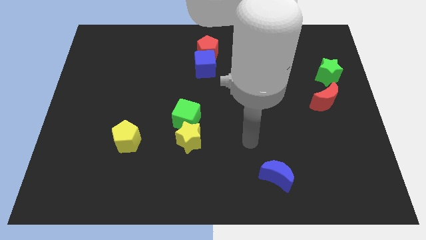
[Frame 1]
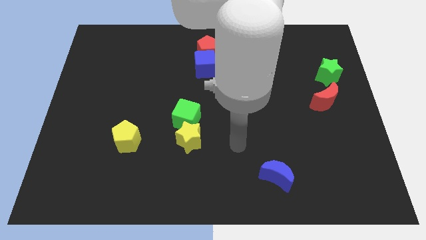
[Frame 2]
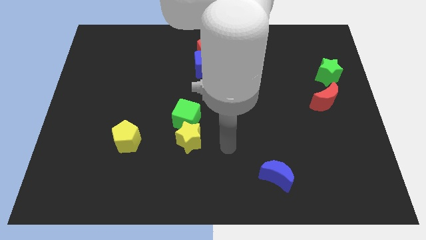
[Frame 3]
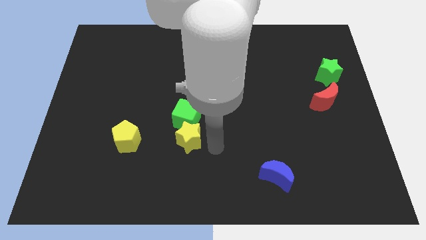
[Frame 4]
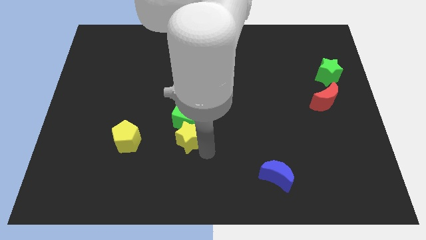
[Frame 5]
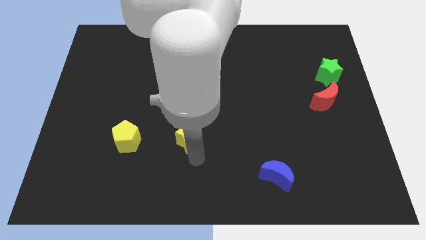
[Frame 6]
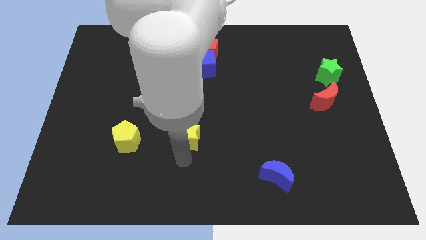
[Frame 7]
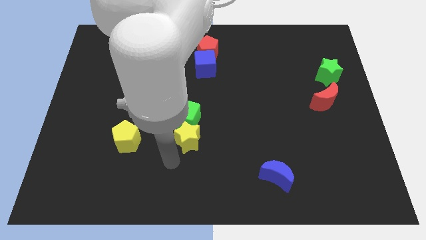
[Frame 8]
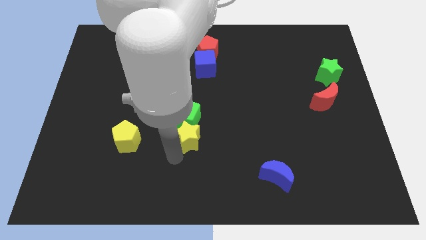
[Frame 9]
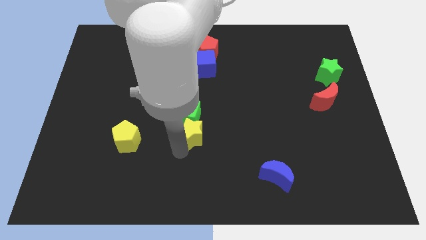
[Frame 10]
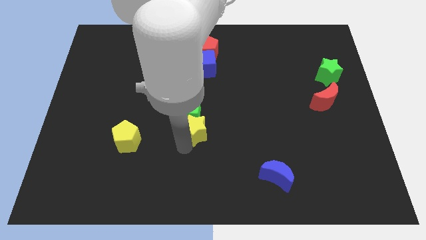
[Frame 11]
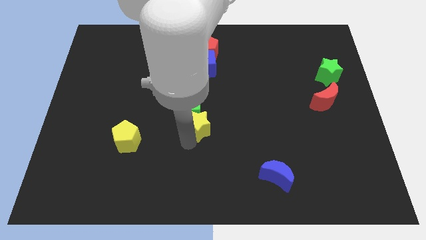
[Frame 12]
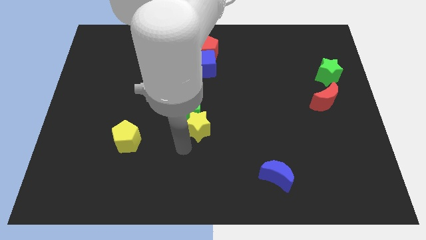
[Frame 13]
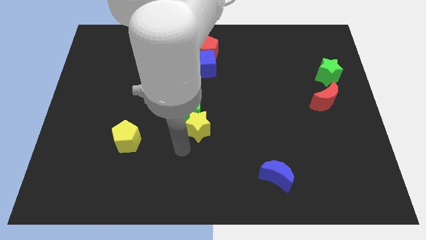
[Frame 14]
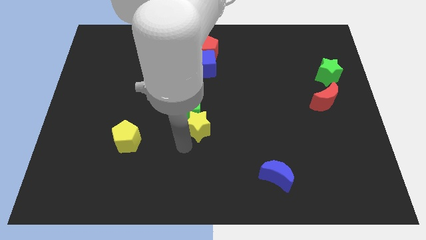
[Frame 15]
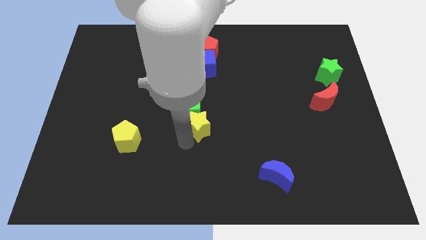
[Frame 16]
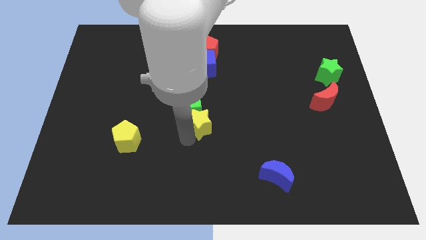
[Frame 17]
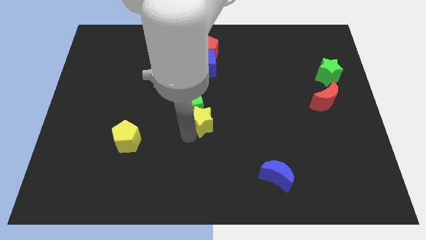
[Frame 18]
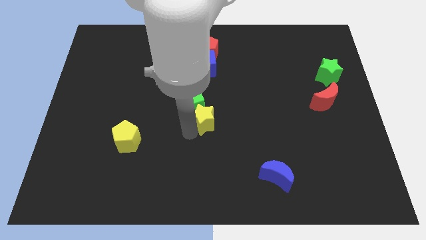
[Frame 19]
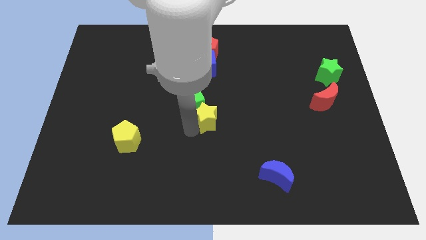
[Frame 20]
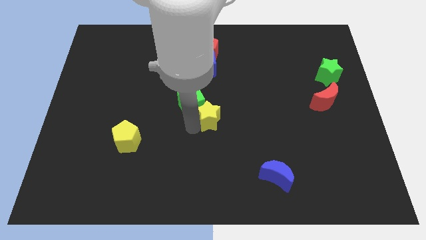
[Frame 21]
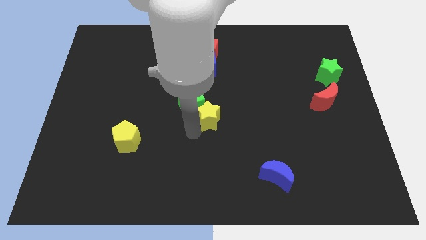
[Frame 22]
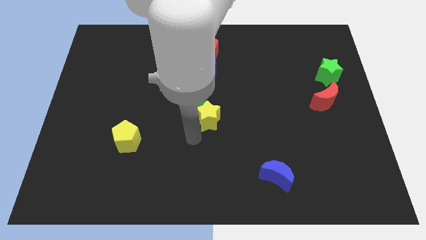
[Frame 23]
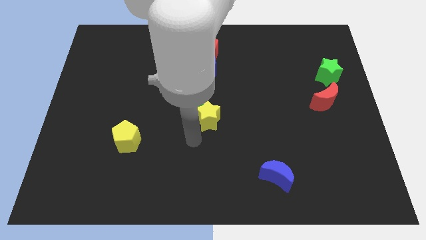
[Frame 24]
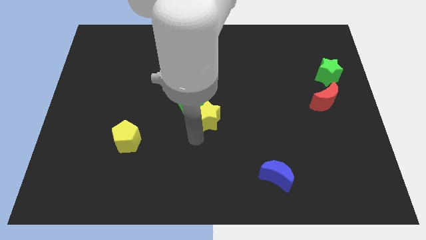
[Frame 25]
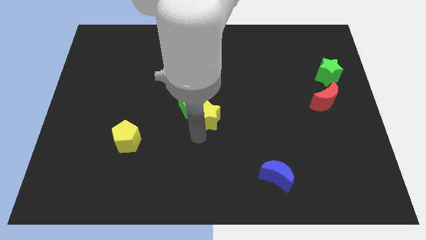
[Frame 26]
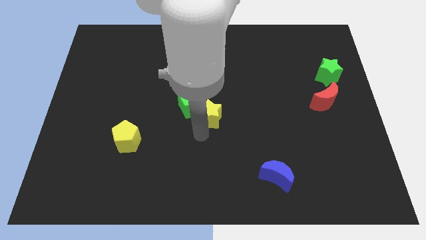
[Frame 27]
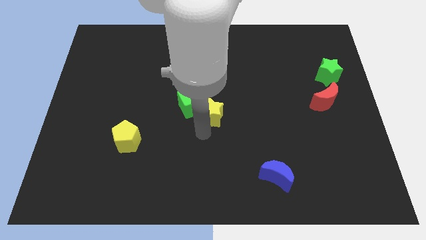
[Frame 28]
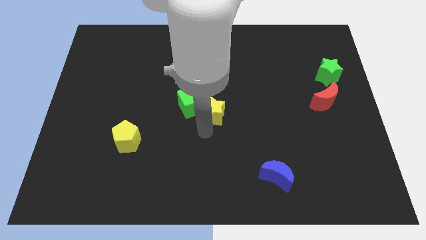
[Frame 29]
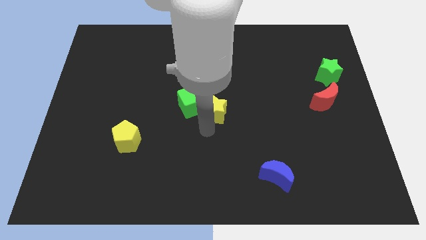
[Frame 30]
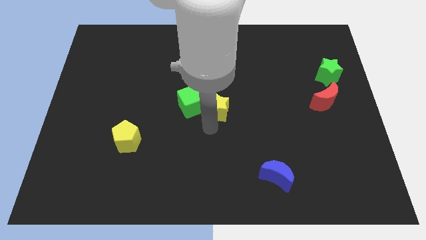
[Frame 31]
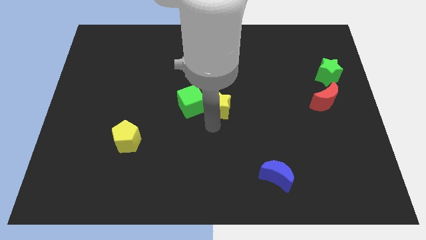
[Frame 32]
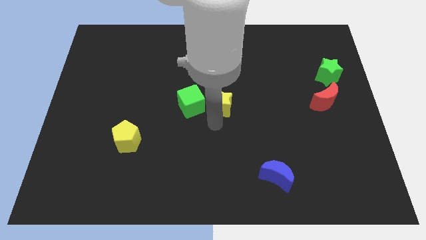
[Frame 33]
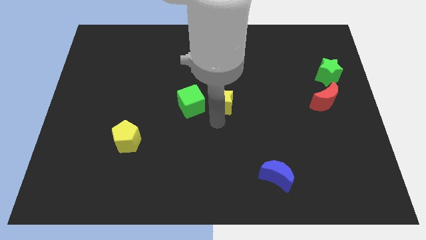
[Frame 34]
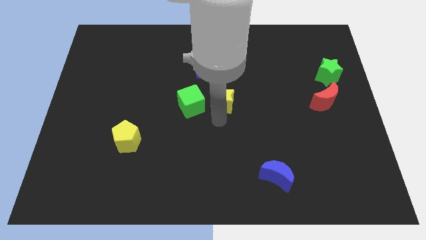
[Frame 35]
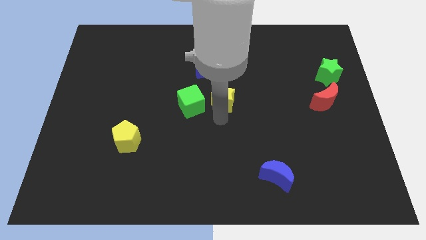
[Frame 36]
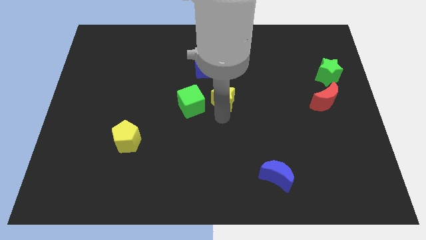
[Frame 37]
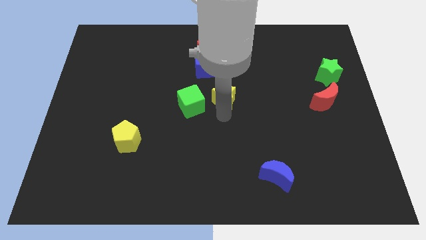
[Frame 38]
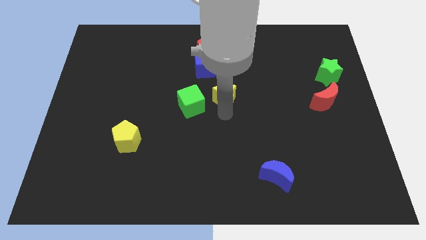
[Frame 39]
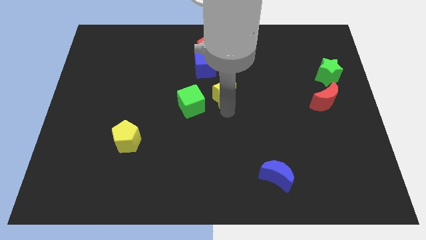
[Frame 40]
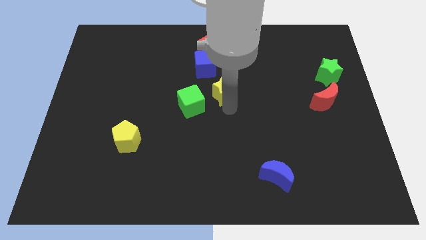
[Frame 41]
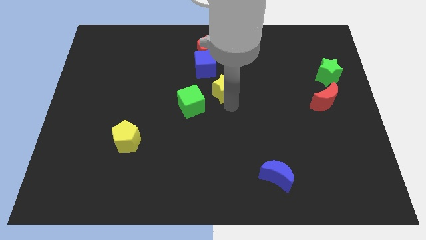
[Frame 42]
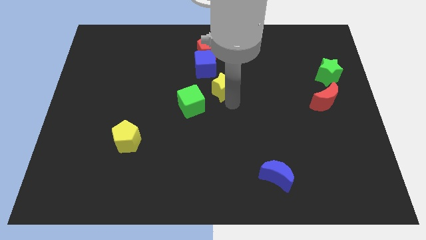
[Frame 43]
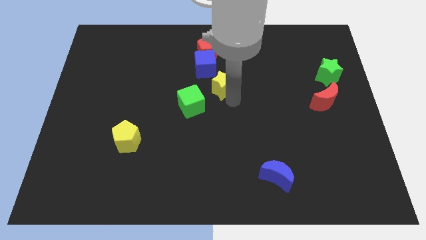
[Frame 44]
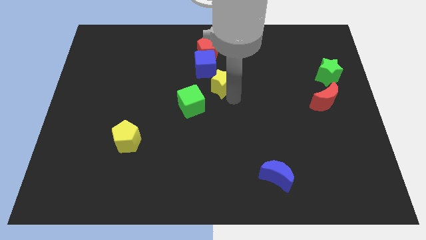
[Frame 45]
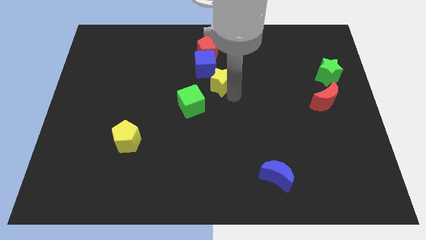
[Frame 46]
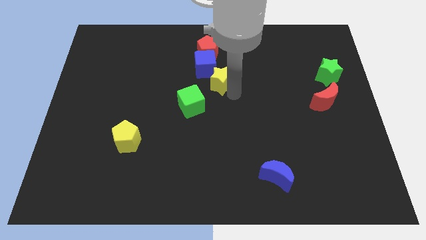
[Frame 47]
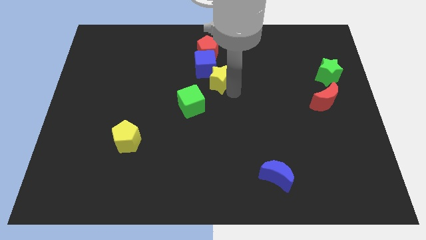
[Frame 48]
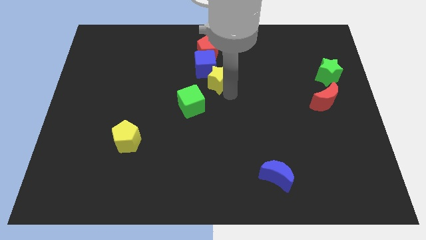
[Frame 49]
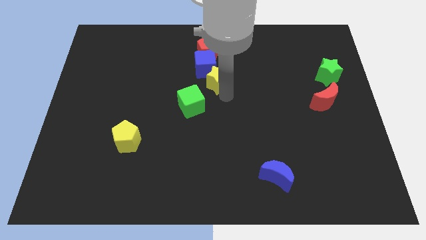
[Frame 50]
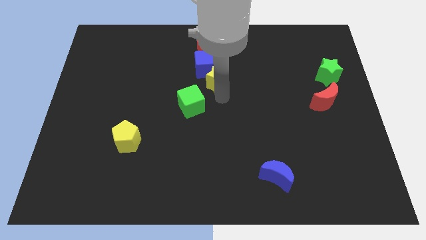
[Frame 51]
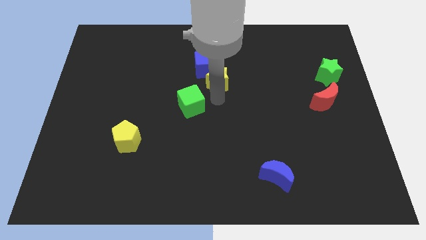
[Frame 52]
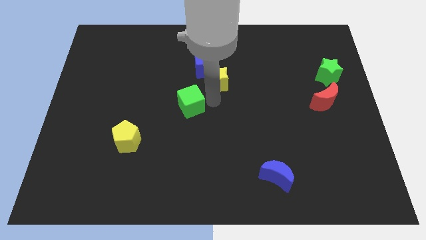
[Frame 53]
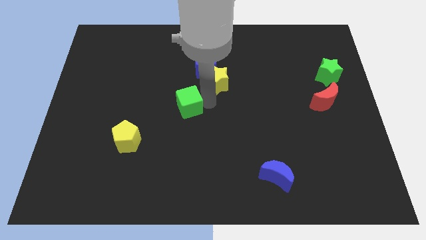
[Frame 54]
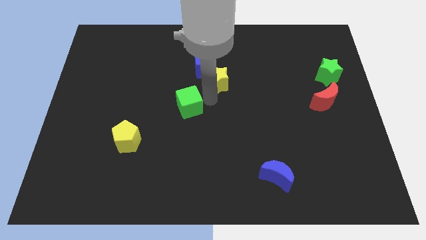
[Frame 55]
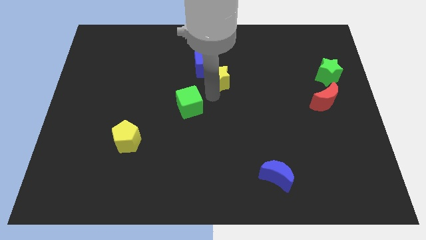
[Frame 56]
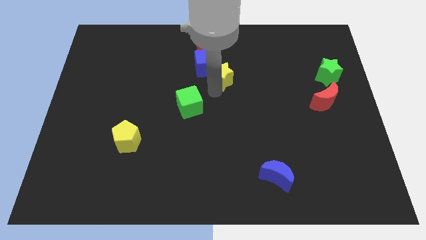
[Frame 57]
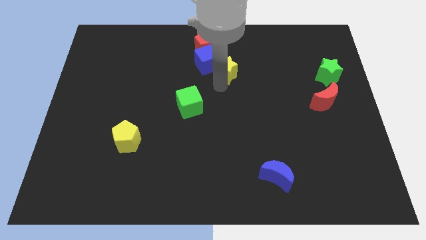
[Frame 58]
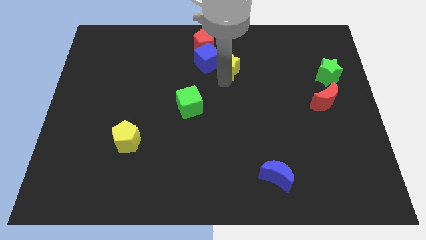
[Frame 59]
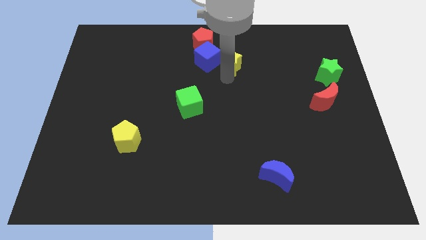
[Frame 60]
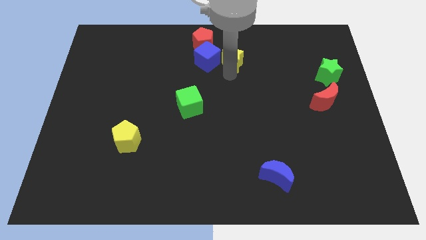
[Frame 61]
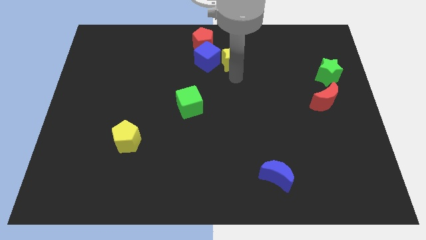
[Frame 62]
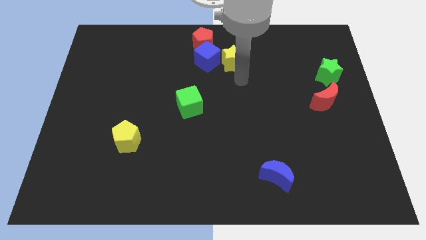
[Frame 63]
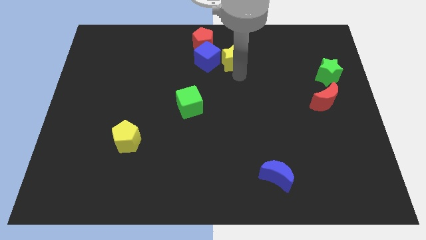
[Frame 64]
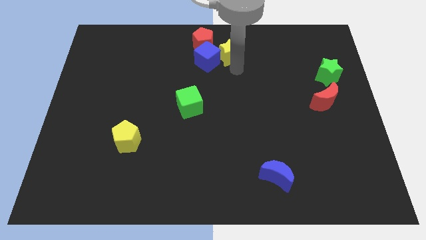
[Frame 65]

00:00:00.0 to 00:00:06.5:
put the yellow star to the top side
